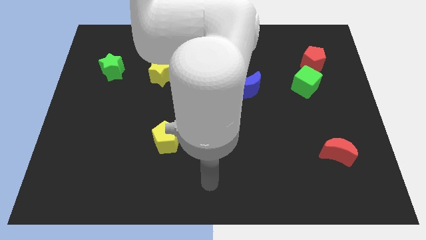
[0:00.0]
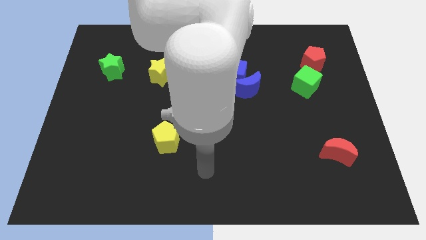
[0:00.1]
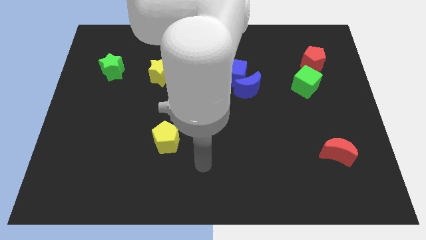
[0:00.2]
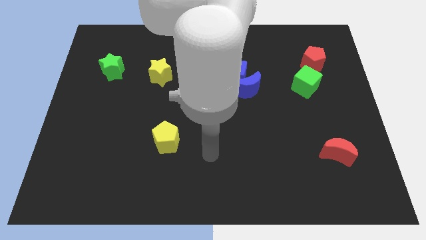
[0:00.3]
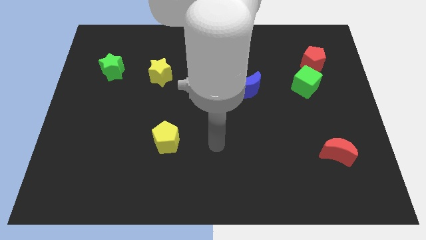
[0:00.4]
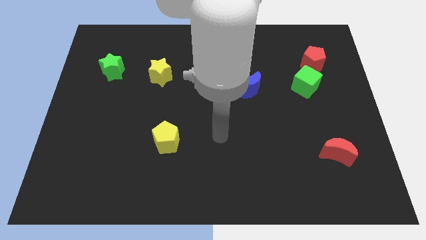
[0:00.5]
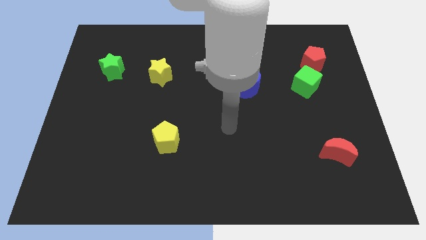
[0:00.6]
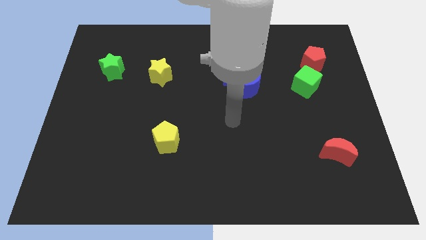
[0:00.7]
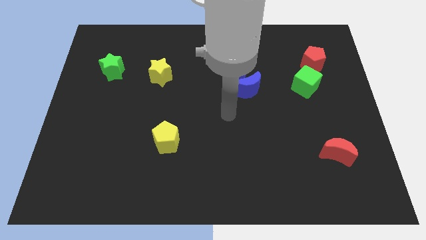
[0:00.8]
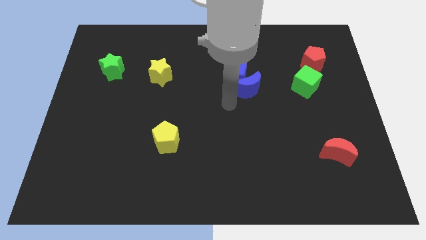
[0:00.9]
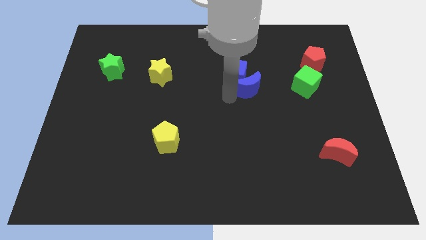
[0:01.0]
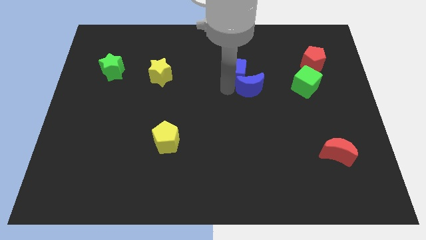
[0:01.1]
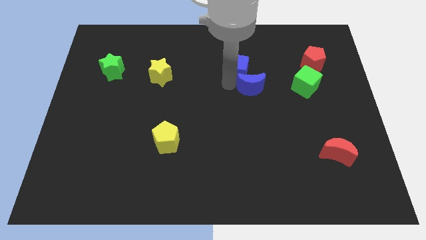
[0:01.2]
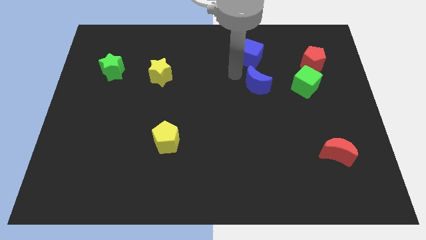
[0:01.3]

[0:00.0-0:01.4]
move the blue moon away from the blue cube

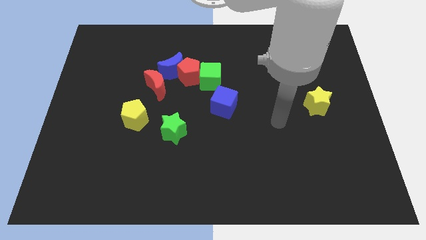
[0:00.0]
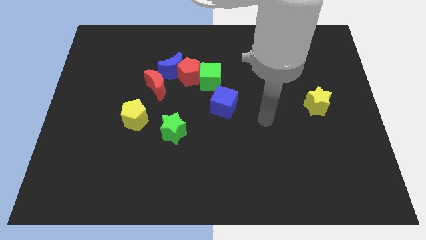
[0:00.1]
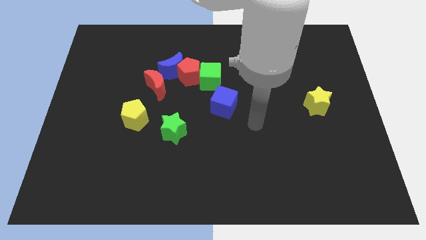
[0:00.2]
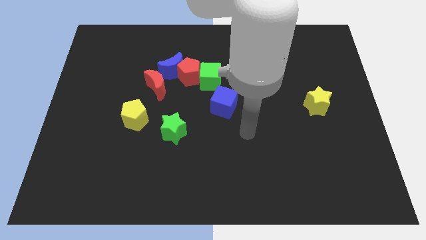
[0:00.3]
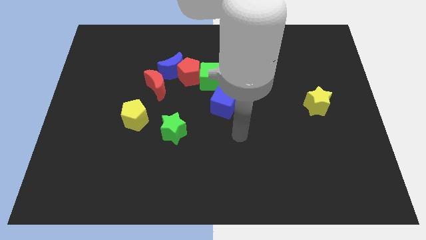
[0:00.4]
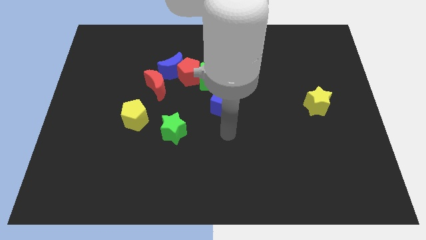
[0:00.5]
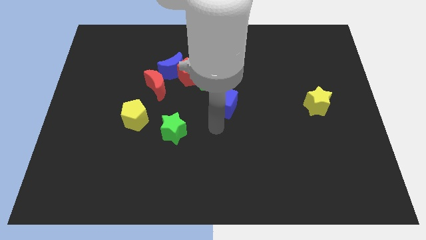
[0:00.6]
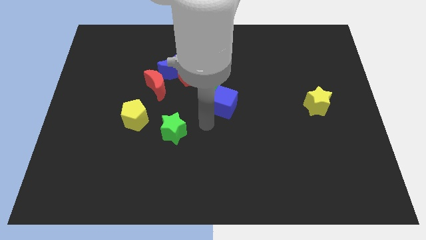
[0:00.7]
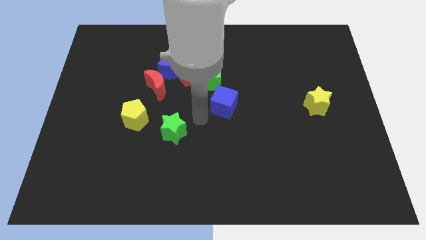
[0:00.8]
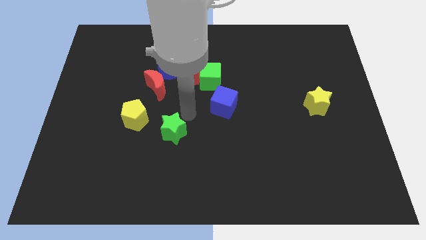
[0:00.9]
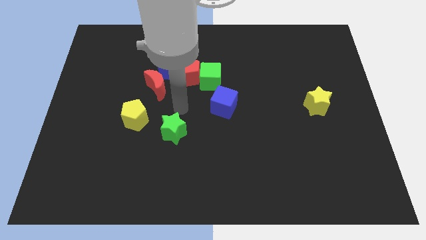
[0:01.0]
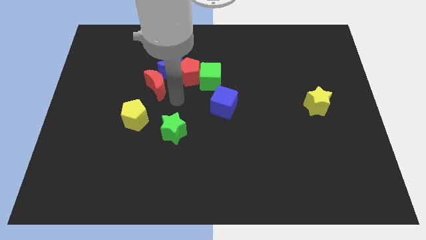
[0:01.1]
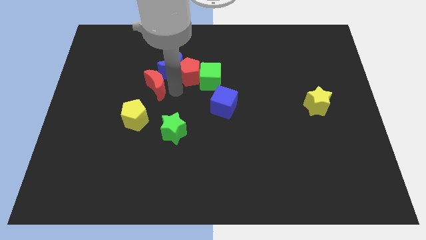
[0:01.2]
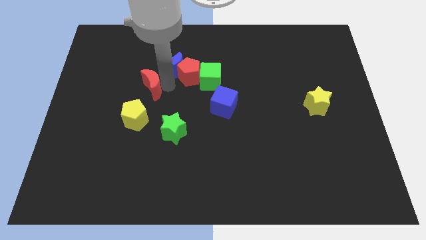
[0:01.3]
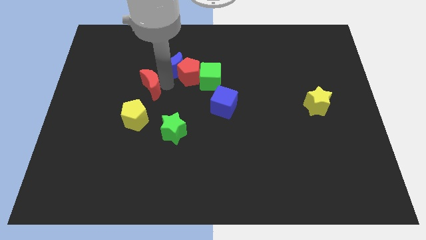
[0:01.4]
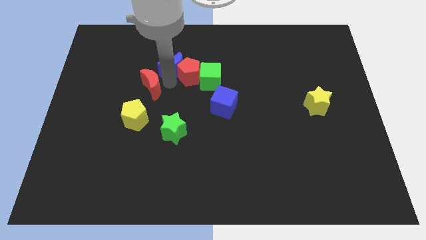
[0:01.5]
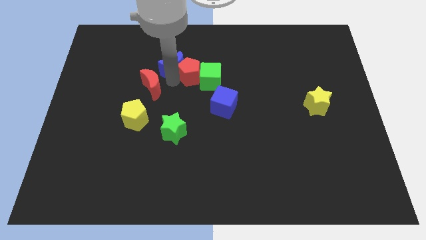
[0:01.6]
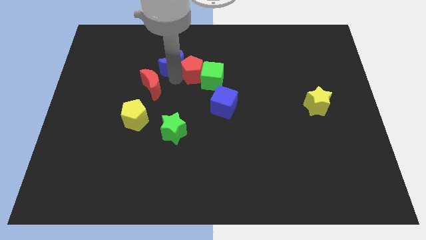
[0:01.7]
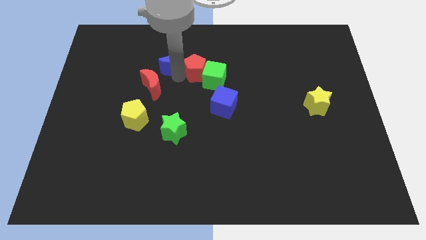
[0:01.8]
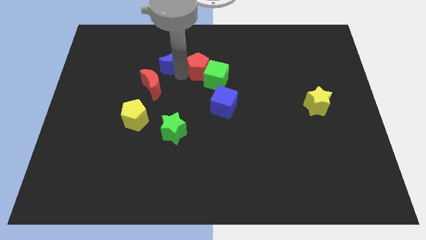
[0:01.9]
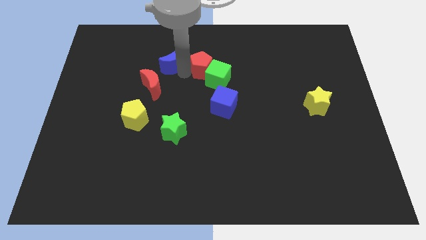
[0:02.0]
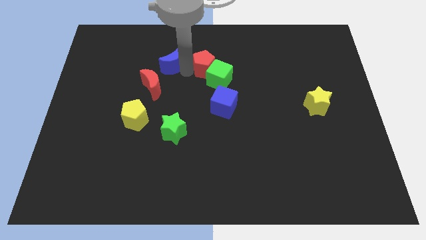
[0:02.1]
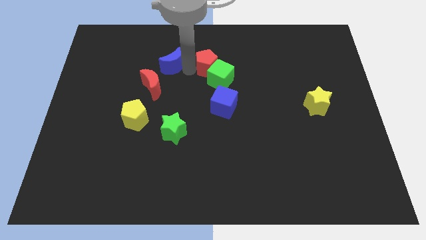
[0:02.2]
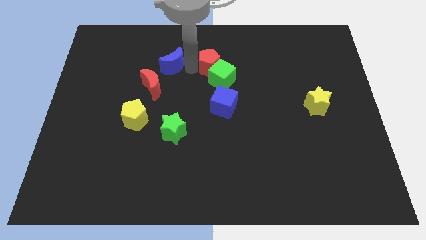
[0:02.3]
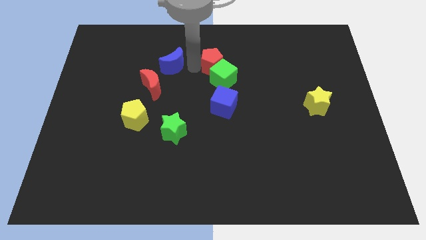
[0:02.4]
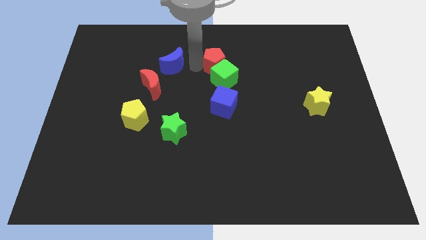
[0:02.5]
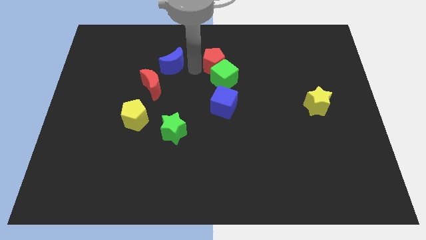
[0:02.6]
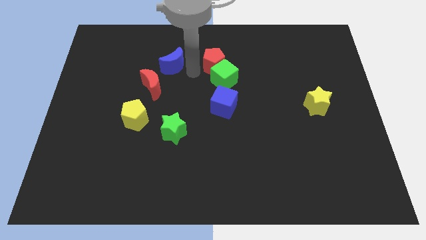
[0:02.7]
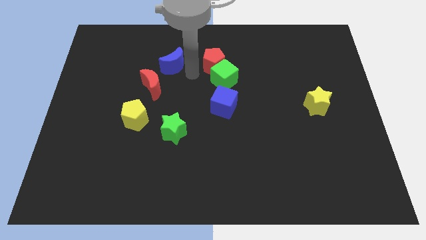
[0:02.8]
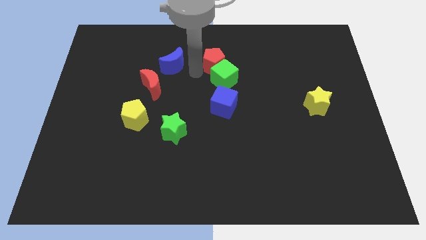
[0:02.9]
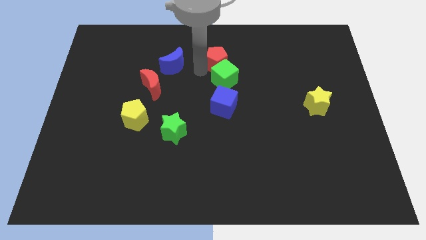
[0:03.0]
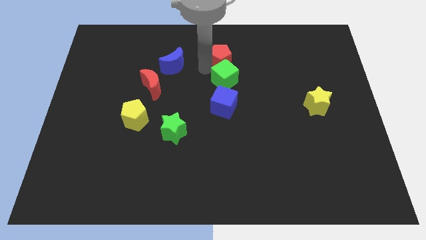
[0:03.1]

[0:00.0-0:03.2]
separate the red pentagon from the blue moon, green cube, and red moon

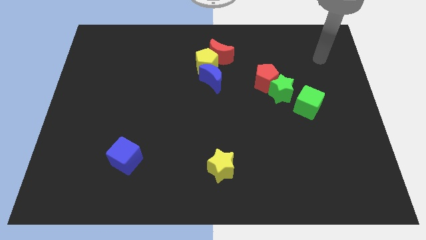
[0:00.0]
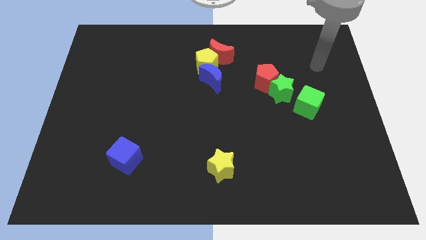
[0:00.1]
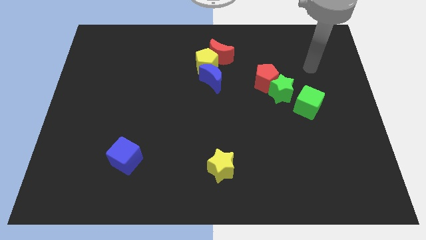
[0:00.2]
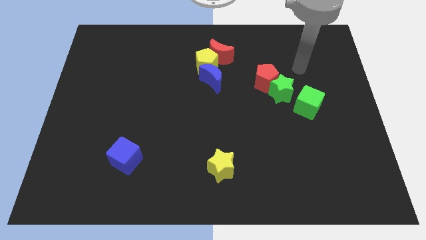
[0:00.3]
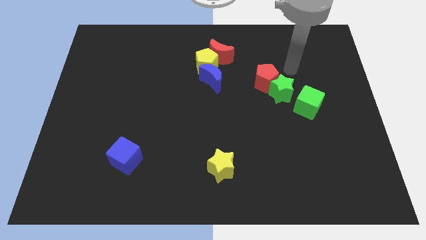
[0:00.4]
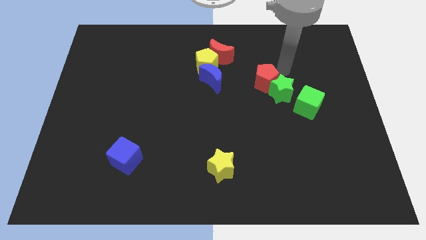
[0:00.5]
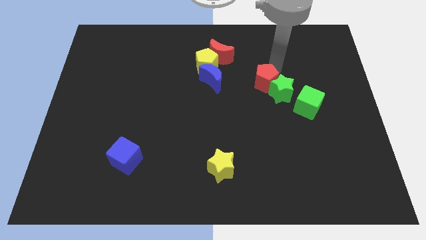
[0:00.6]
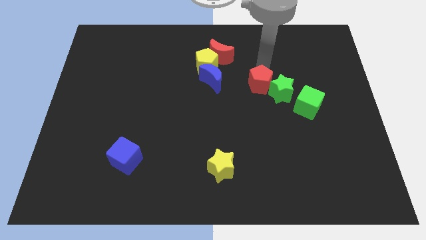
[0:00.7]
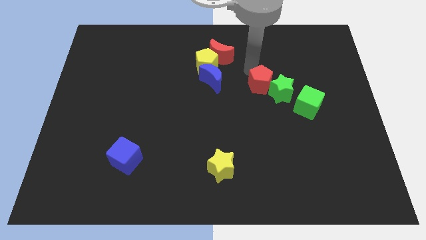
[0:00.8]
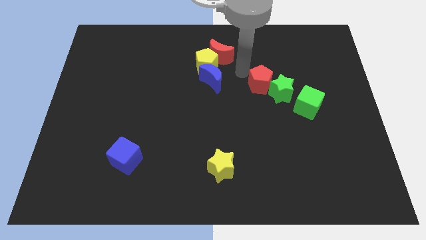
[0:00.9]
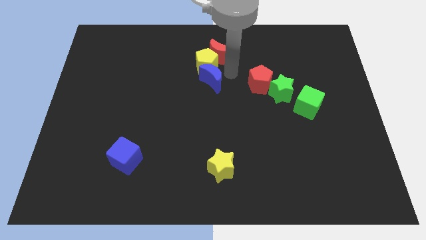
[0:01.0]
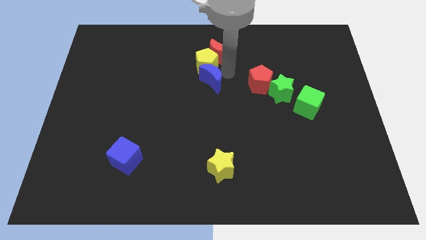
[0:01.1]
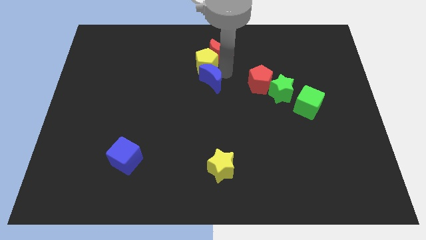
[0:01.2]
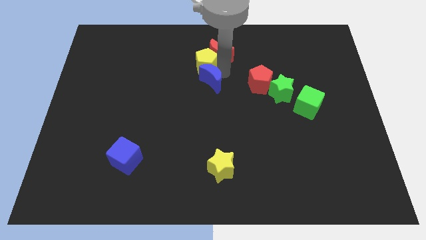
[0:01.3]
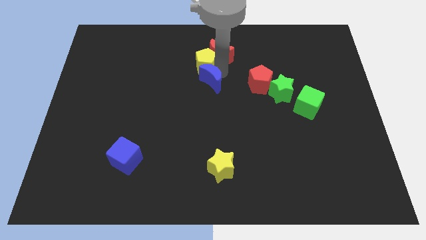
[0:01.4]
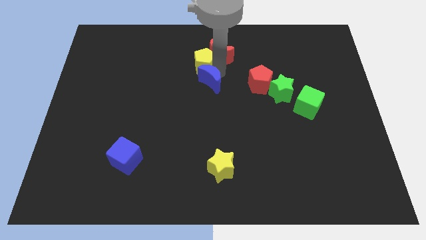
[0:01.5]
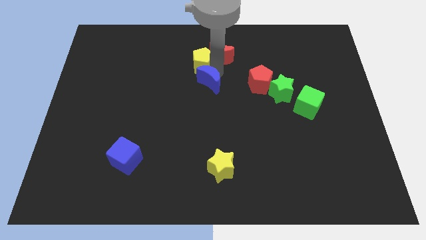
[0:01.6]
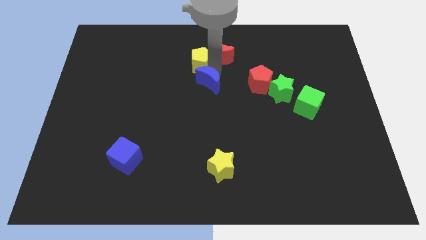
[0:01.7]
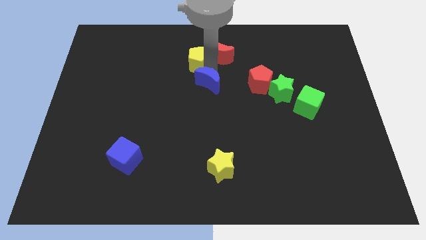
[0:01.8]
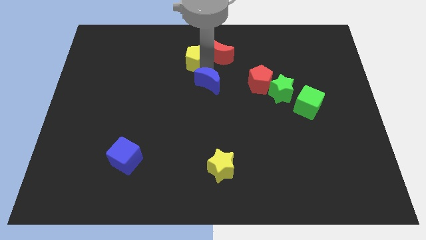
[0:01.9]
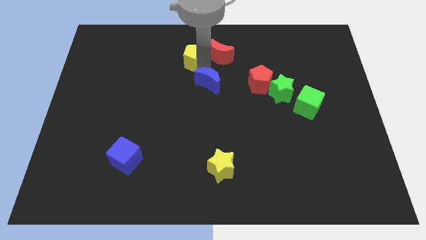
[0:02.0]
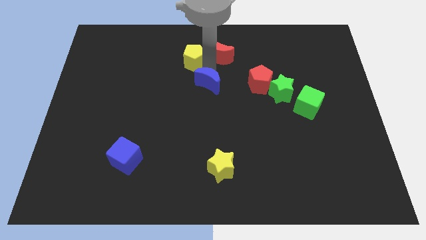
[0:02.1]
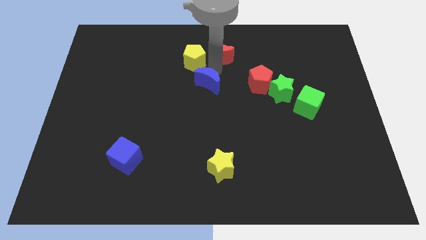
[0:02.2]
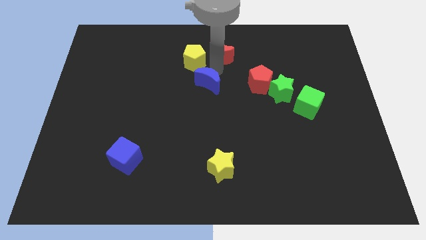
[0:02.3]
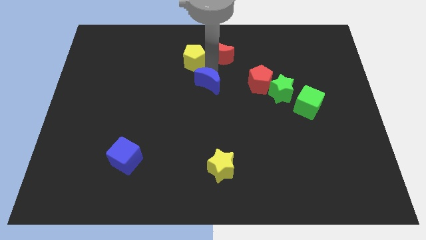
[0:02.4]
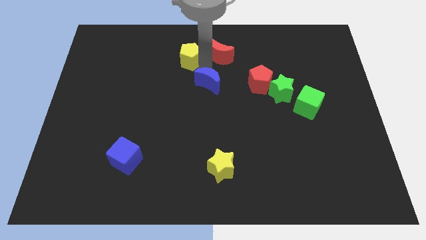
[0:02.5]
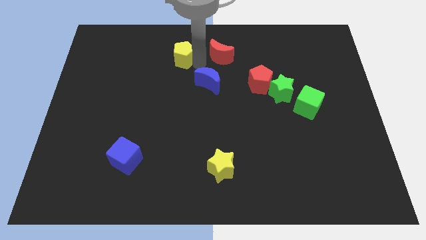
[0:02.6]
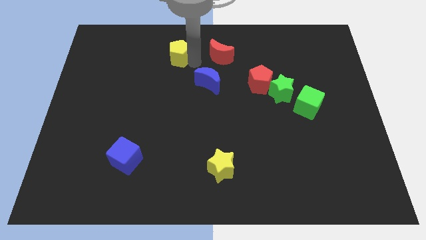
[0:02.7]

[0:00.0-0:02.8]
pull the yellow pentagon apart from the red moon and blue moon

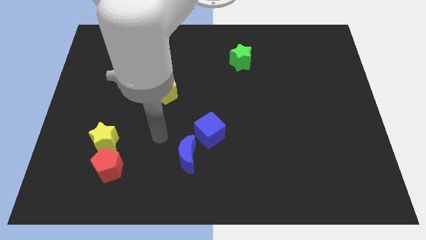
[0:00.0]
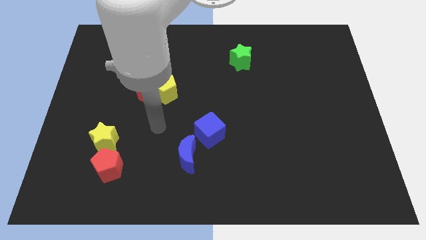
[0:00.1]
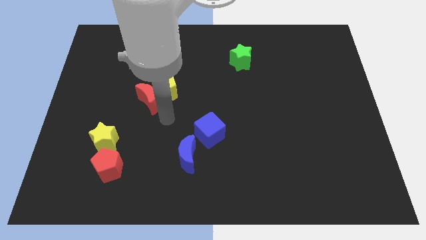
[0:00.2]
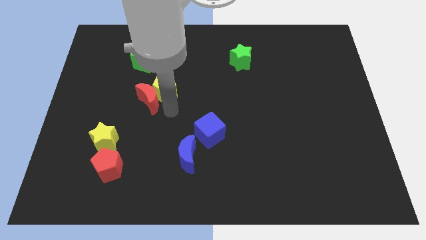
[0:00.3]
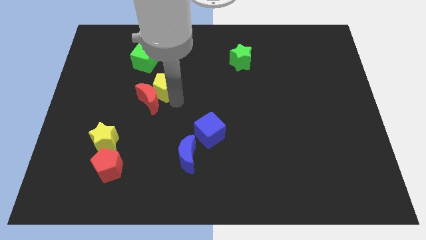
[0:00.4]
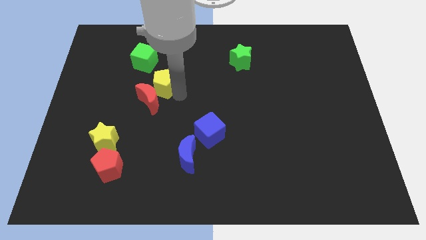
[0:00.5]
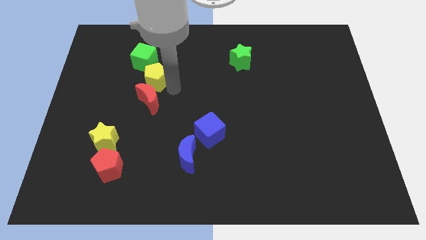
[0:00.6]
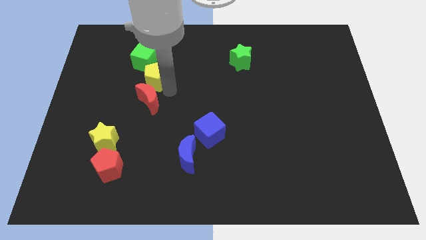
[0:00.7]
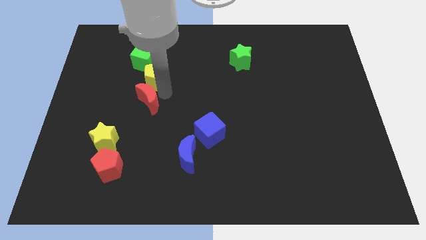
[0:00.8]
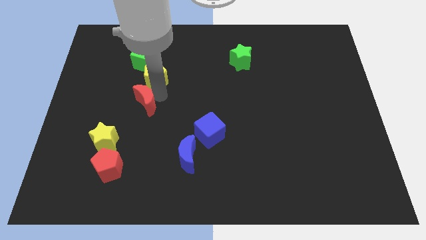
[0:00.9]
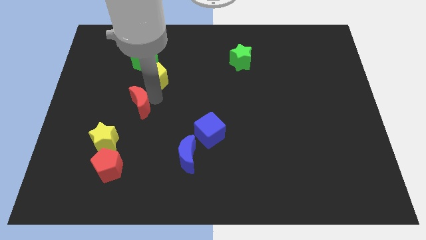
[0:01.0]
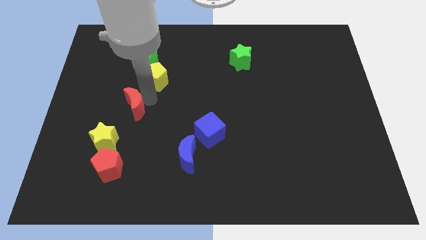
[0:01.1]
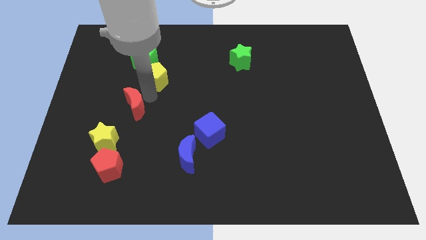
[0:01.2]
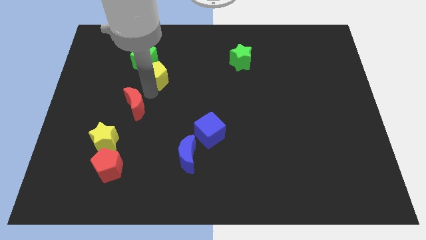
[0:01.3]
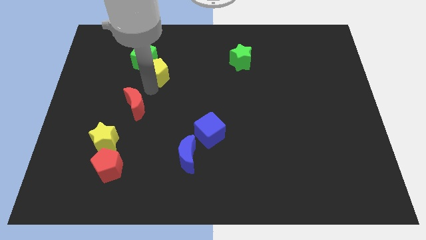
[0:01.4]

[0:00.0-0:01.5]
move the red moon away from the yellow pentagon

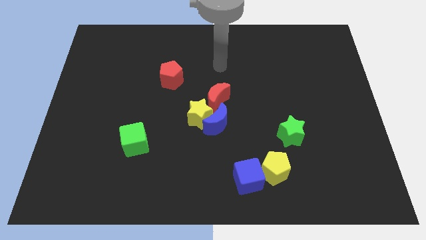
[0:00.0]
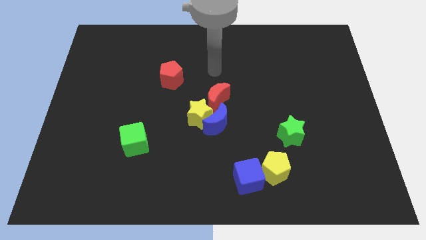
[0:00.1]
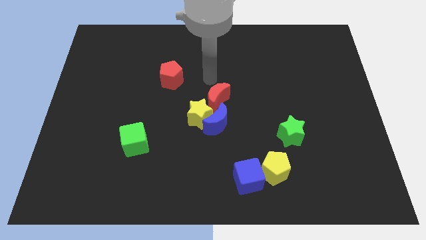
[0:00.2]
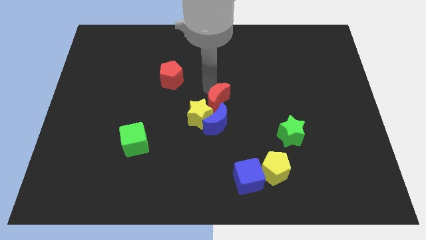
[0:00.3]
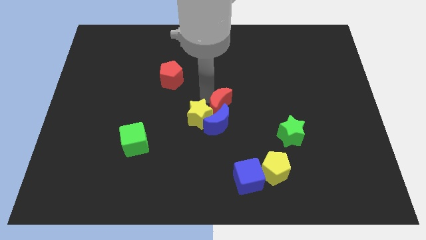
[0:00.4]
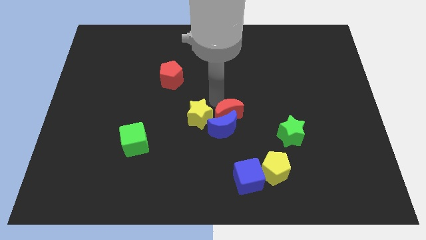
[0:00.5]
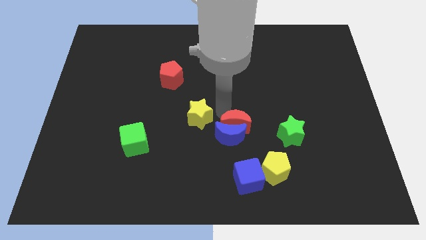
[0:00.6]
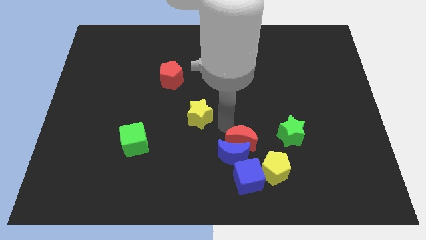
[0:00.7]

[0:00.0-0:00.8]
pull the yellow star apart from the blue moon and red moon
